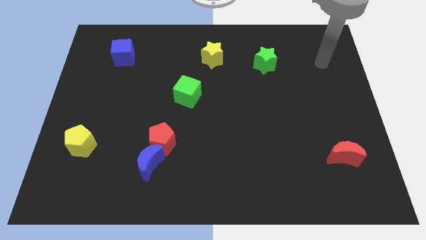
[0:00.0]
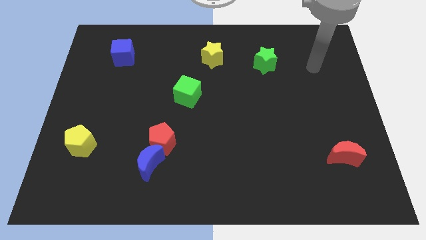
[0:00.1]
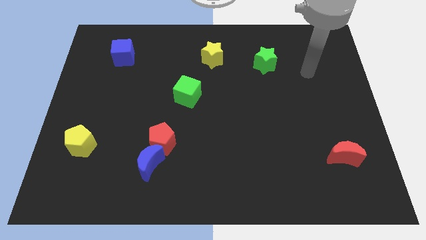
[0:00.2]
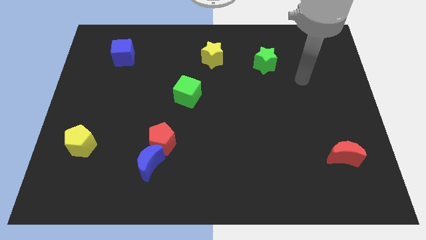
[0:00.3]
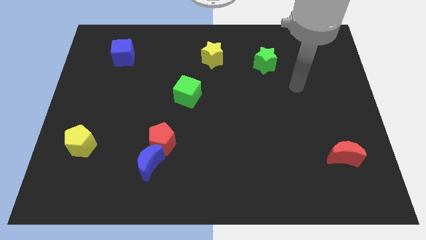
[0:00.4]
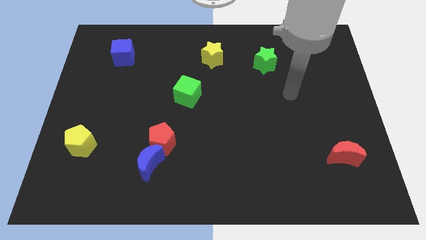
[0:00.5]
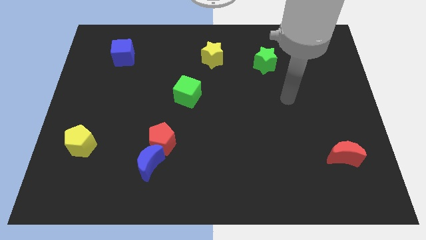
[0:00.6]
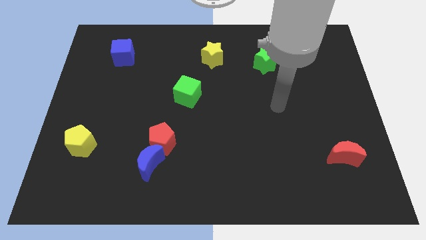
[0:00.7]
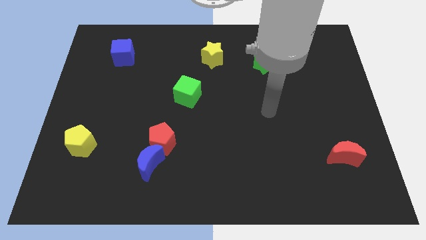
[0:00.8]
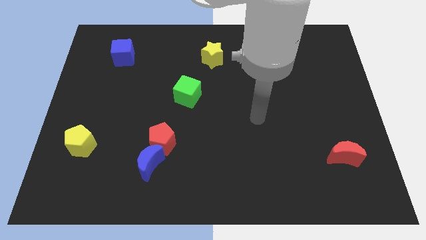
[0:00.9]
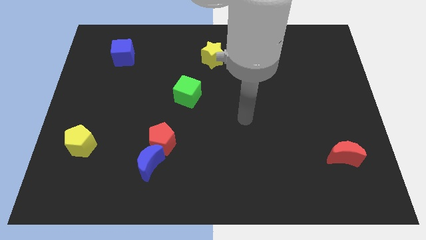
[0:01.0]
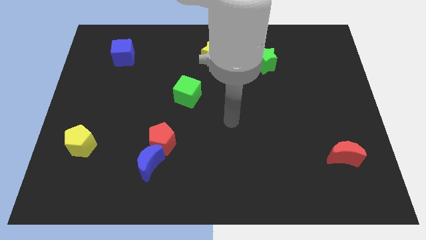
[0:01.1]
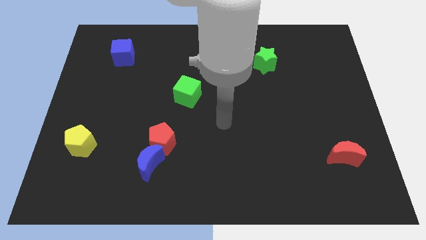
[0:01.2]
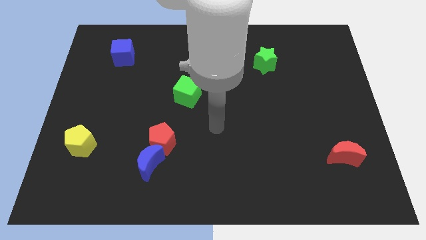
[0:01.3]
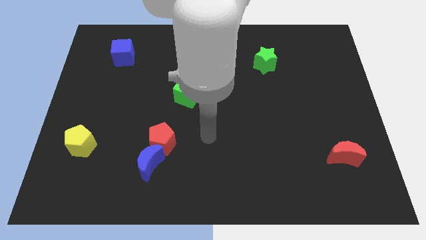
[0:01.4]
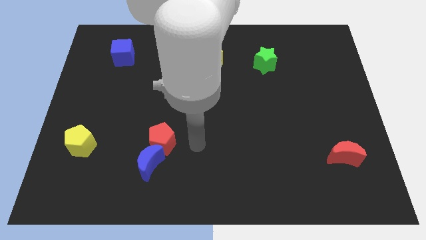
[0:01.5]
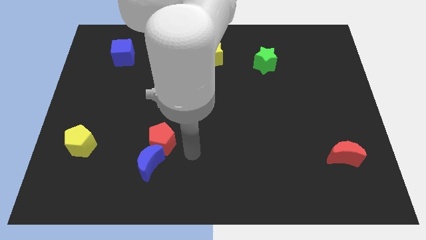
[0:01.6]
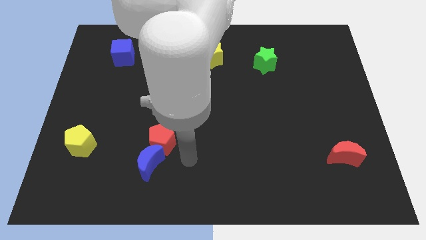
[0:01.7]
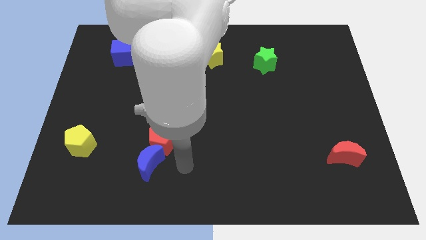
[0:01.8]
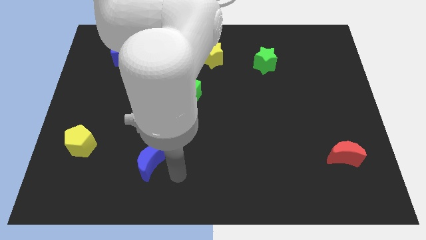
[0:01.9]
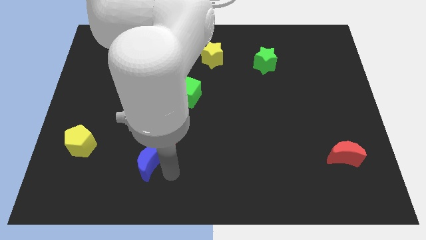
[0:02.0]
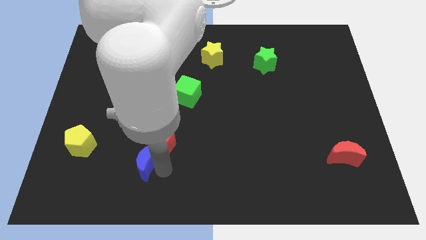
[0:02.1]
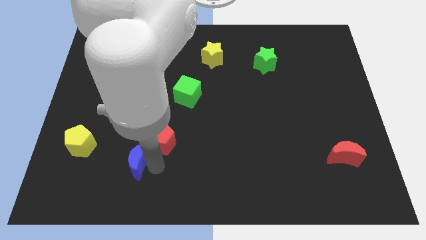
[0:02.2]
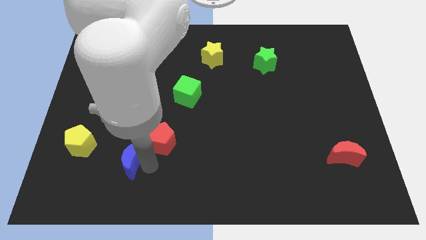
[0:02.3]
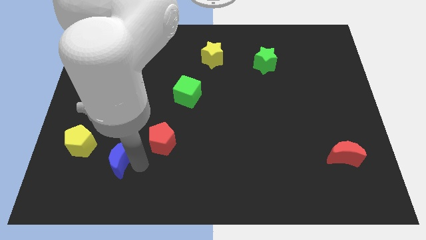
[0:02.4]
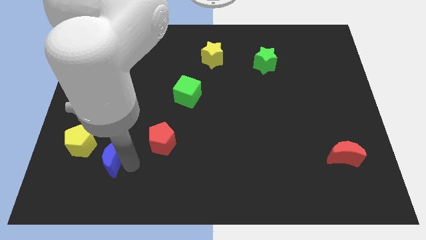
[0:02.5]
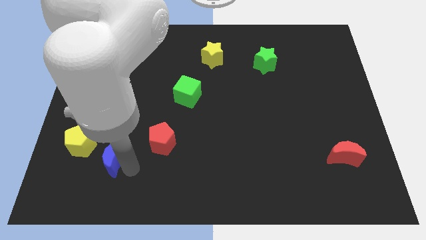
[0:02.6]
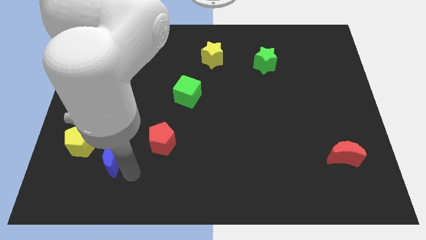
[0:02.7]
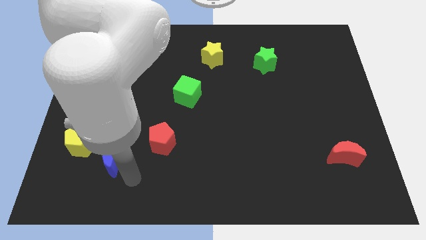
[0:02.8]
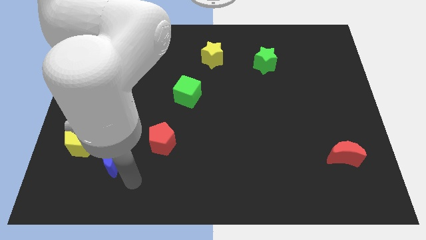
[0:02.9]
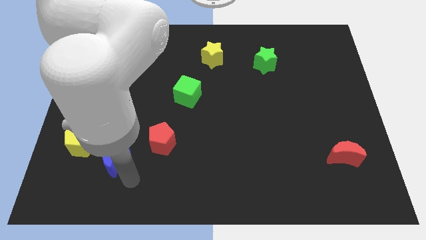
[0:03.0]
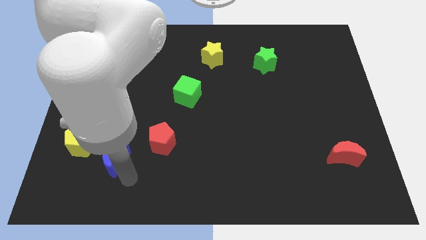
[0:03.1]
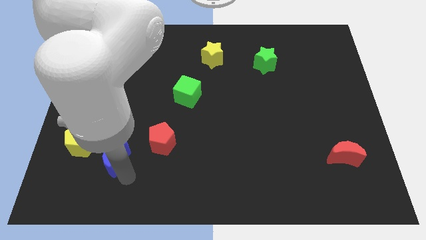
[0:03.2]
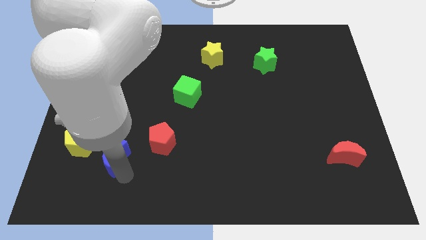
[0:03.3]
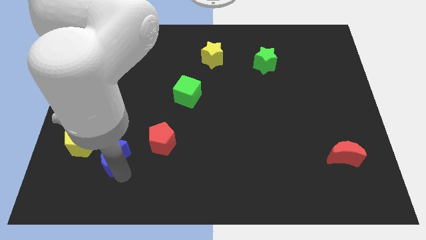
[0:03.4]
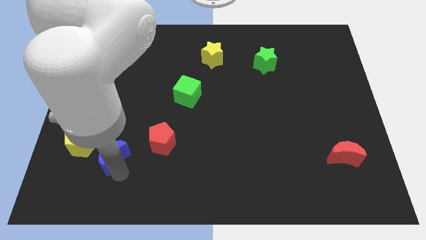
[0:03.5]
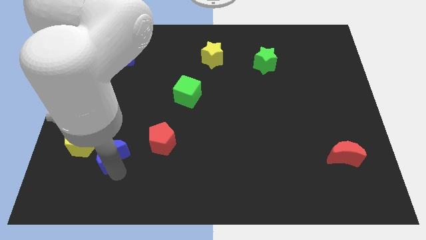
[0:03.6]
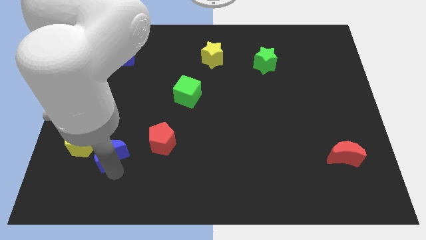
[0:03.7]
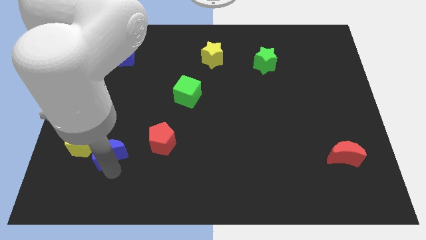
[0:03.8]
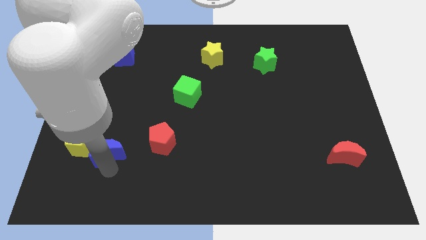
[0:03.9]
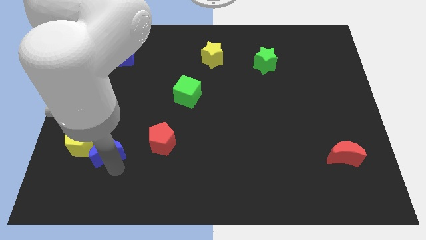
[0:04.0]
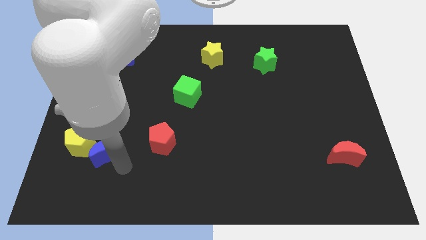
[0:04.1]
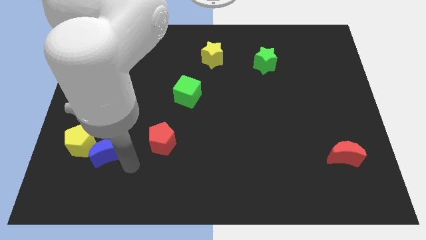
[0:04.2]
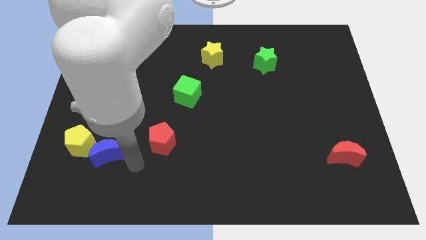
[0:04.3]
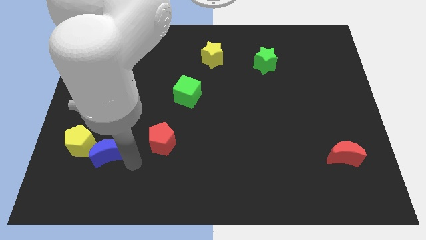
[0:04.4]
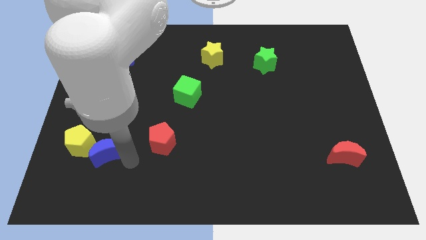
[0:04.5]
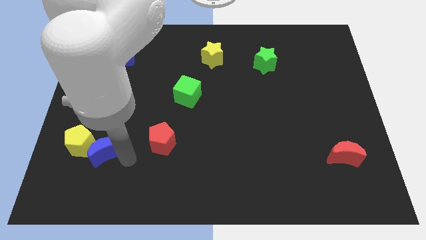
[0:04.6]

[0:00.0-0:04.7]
put the blue moon to the yellow pentagon

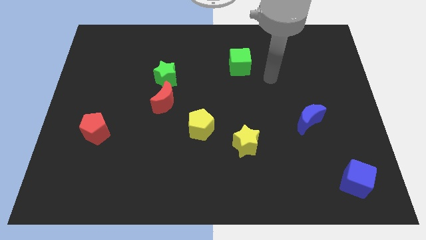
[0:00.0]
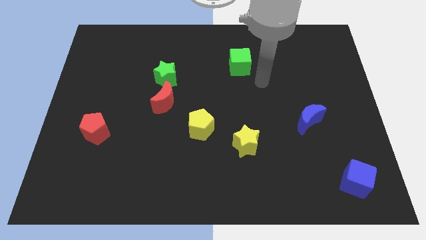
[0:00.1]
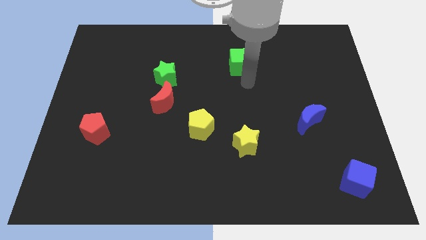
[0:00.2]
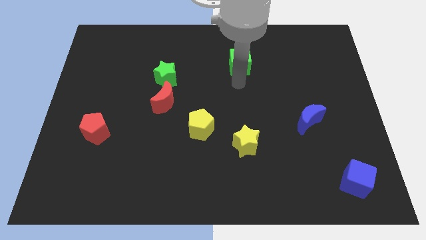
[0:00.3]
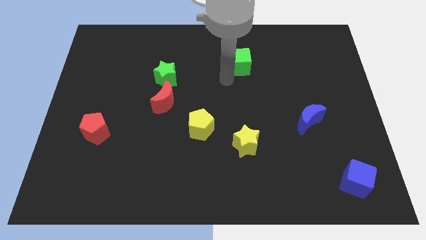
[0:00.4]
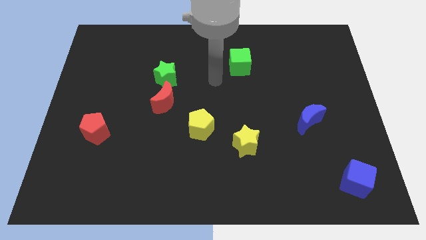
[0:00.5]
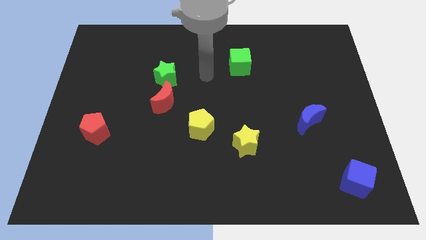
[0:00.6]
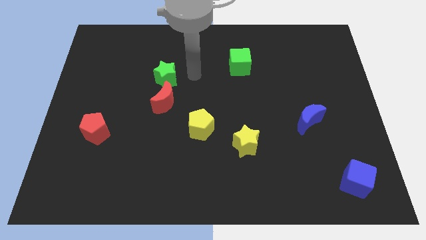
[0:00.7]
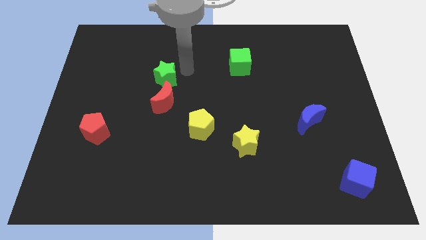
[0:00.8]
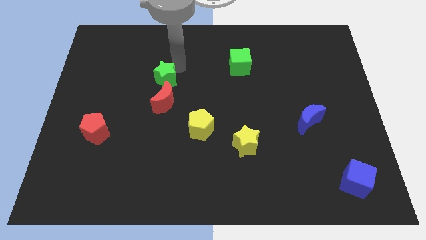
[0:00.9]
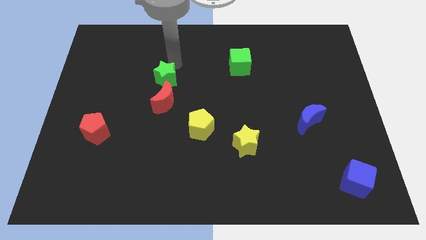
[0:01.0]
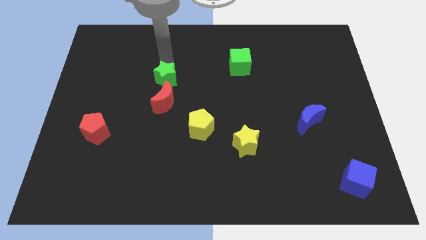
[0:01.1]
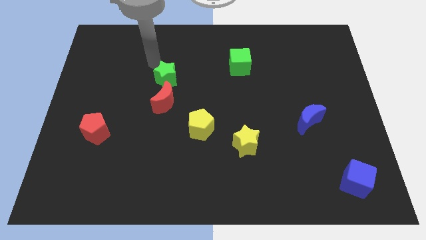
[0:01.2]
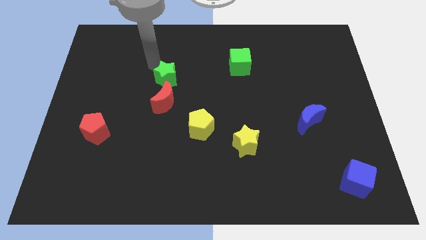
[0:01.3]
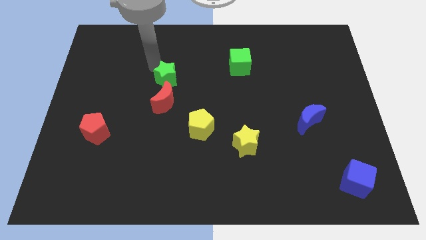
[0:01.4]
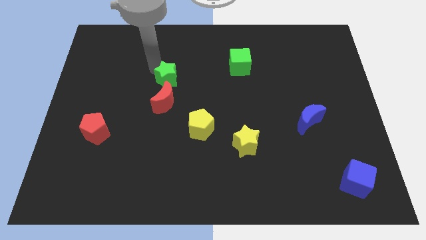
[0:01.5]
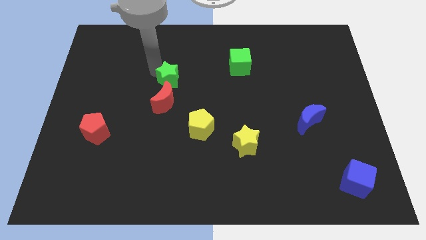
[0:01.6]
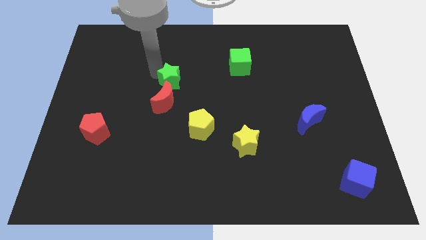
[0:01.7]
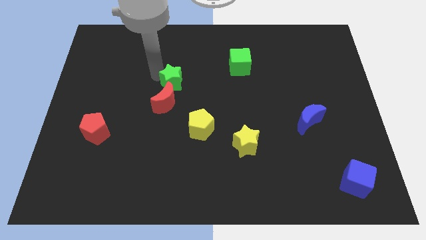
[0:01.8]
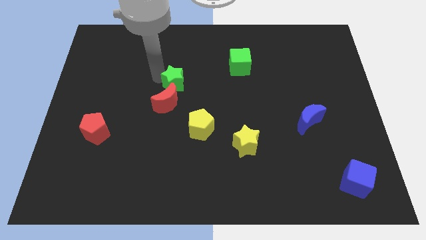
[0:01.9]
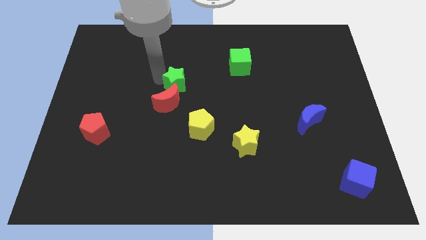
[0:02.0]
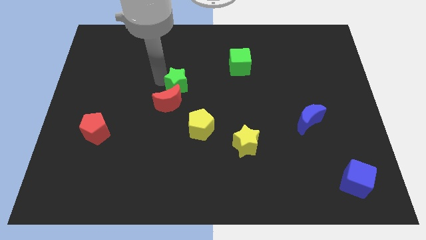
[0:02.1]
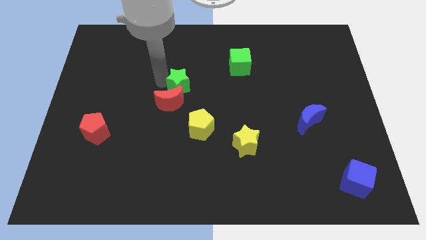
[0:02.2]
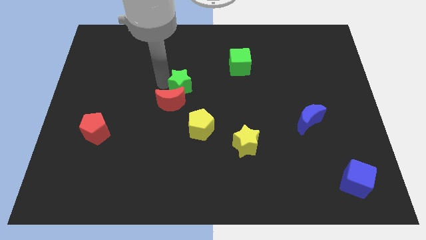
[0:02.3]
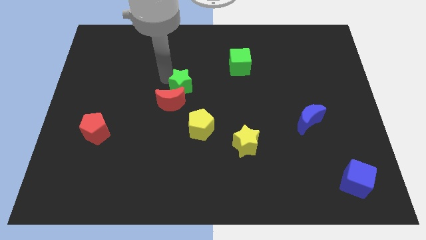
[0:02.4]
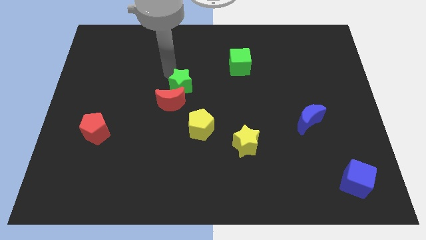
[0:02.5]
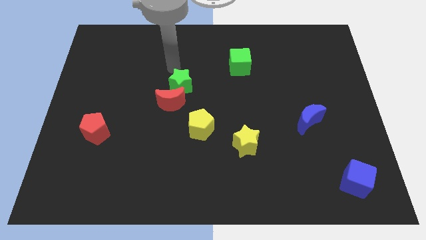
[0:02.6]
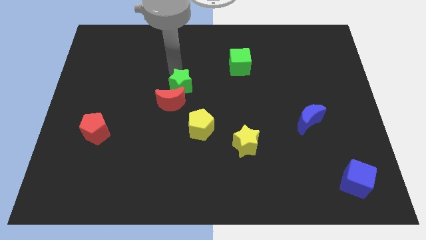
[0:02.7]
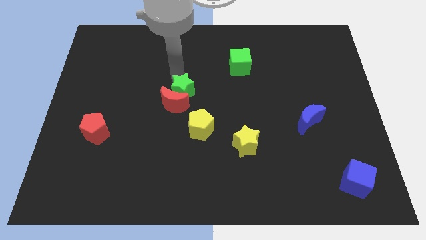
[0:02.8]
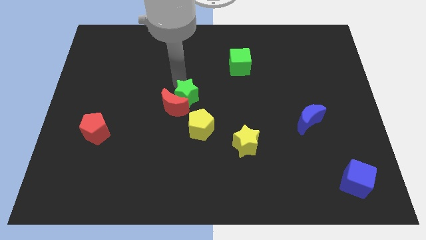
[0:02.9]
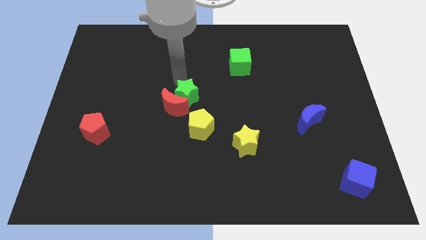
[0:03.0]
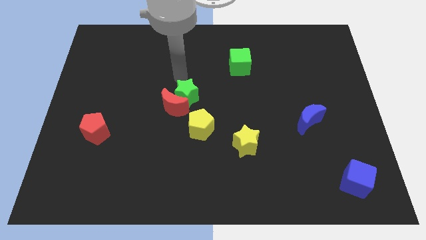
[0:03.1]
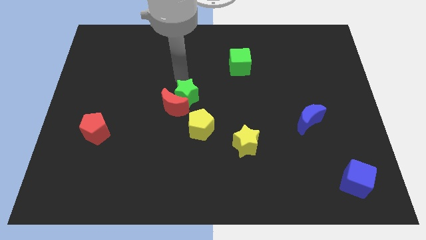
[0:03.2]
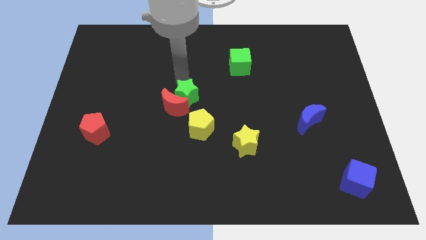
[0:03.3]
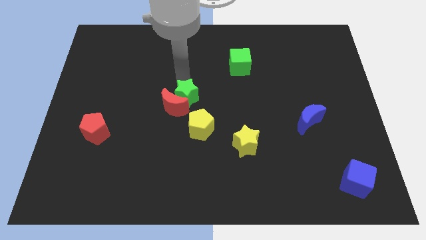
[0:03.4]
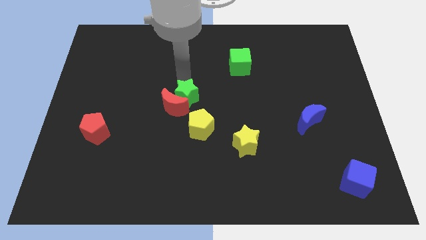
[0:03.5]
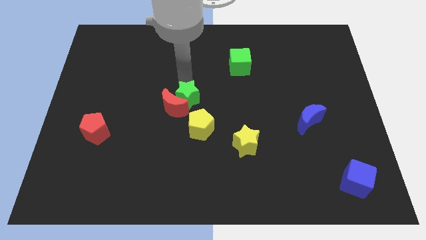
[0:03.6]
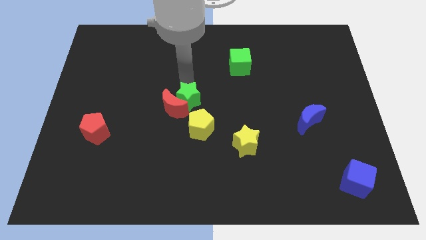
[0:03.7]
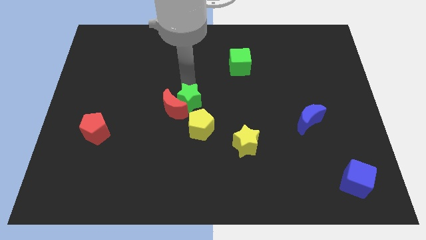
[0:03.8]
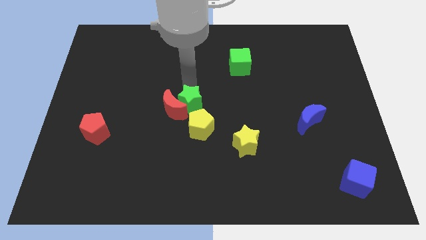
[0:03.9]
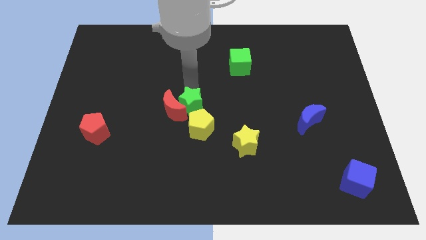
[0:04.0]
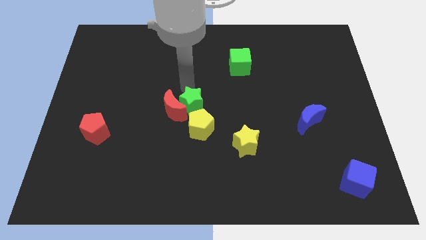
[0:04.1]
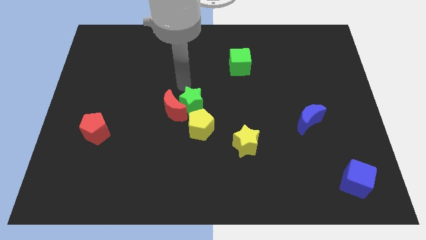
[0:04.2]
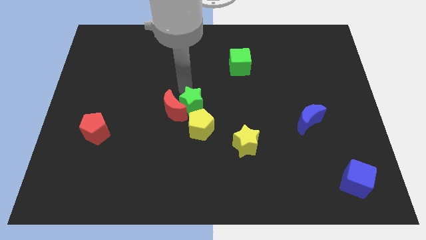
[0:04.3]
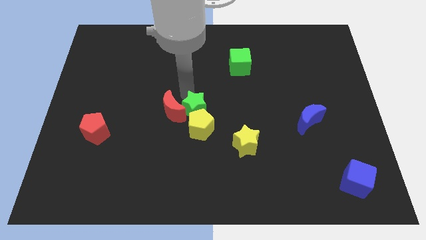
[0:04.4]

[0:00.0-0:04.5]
move the green star next to the yellow pentagon
